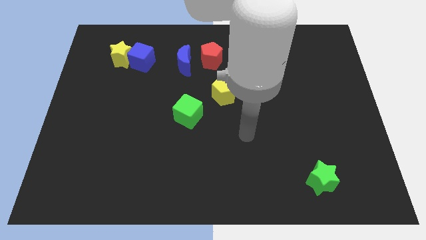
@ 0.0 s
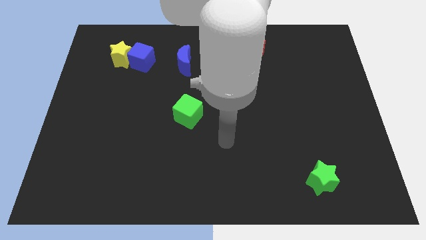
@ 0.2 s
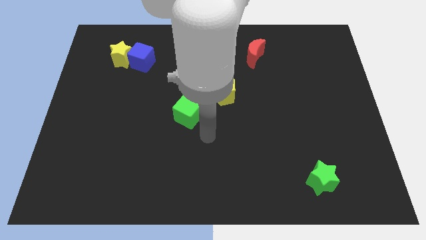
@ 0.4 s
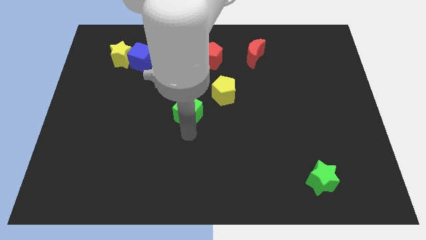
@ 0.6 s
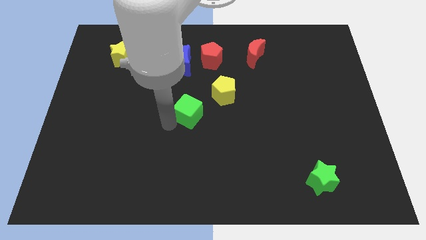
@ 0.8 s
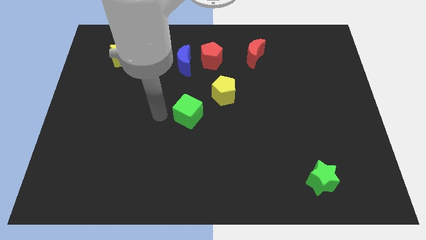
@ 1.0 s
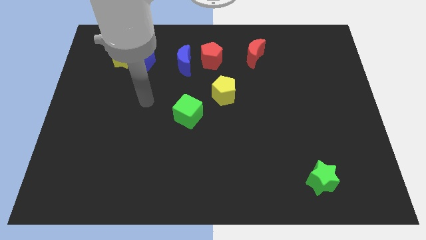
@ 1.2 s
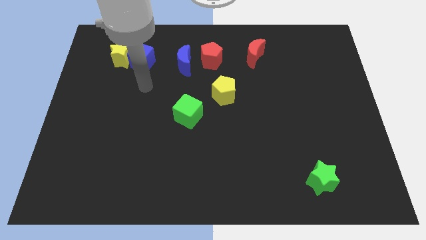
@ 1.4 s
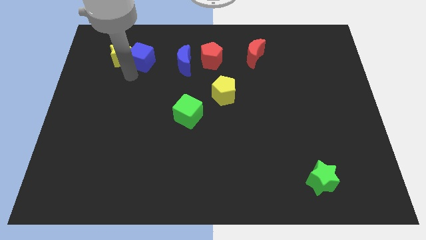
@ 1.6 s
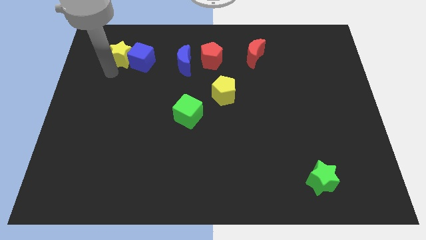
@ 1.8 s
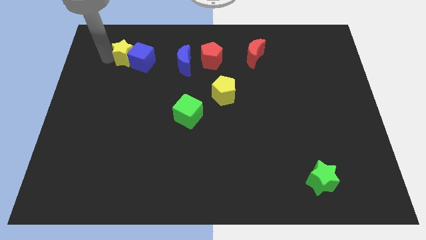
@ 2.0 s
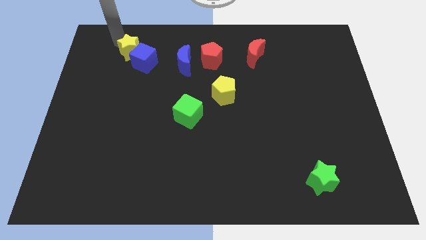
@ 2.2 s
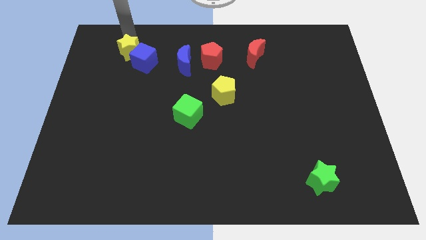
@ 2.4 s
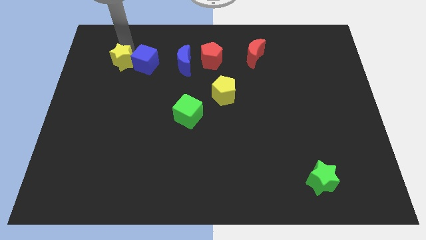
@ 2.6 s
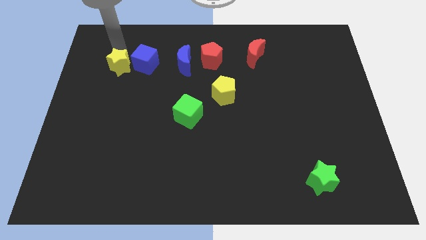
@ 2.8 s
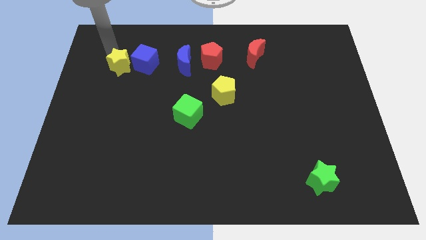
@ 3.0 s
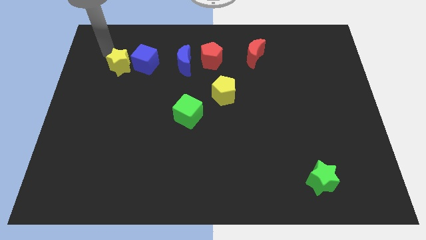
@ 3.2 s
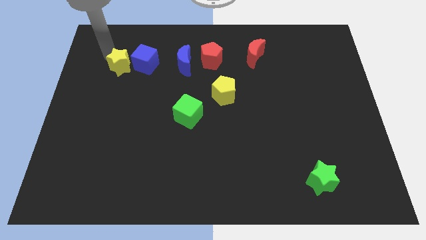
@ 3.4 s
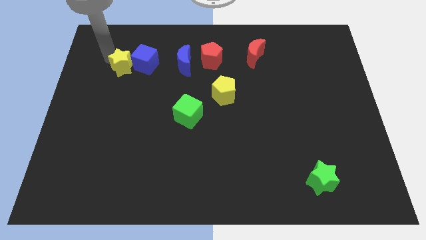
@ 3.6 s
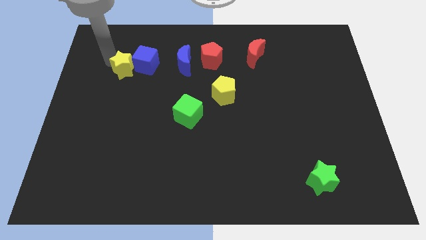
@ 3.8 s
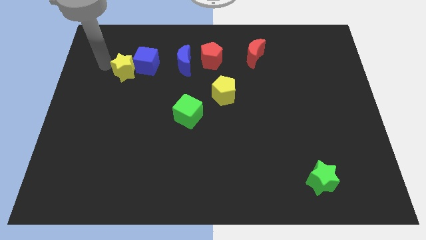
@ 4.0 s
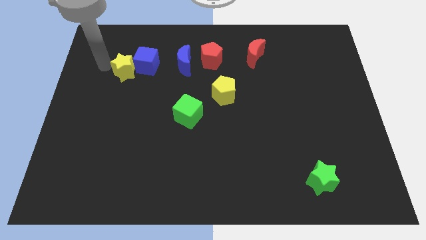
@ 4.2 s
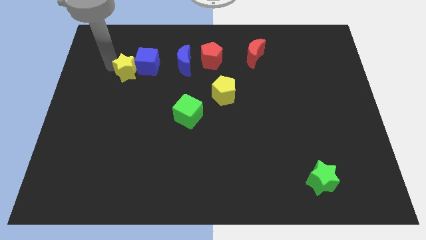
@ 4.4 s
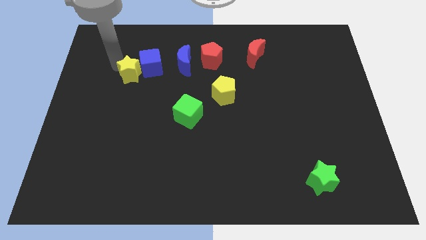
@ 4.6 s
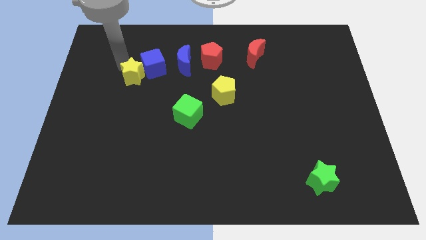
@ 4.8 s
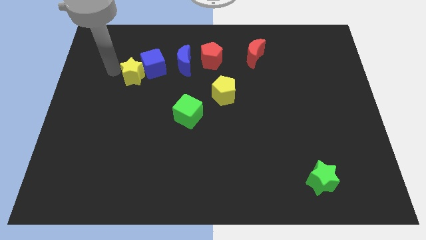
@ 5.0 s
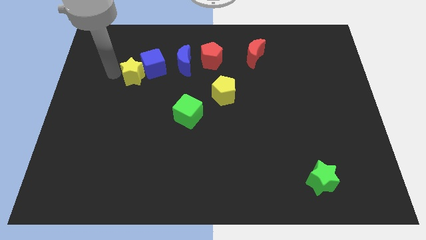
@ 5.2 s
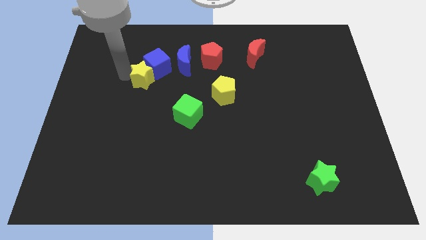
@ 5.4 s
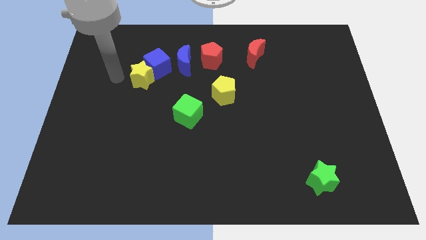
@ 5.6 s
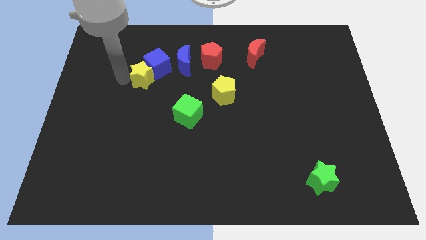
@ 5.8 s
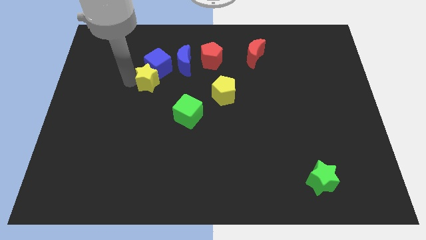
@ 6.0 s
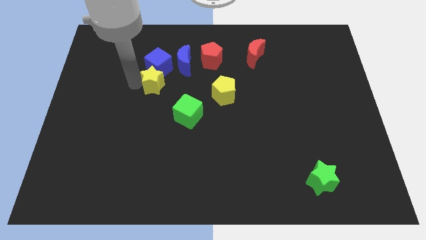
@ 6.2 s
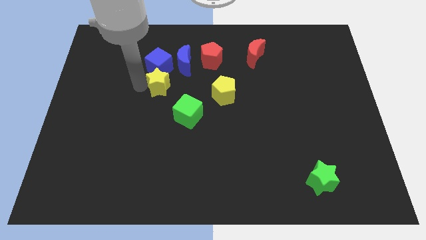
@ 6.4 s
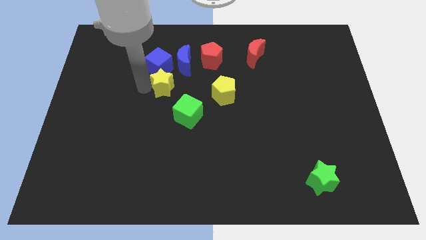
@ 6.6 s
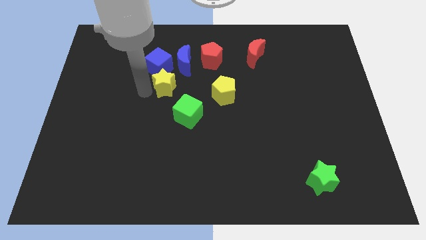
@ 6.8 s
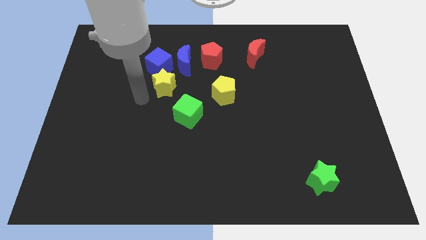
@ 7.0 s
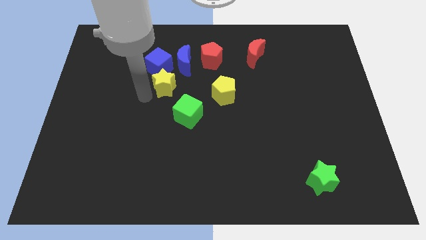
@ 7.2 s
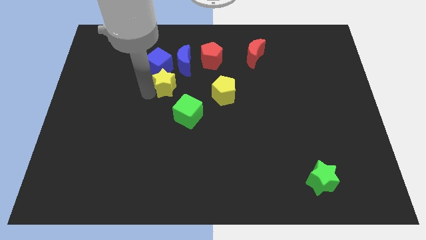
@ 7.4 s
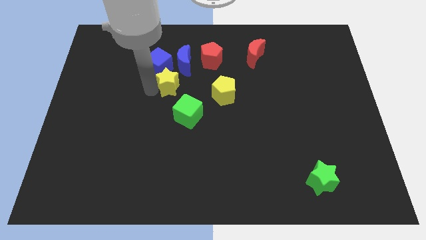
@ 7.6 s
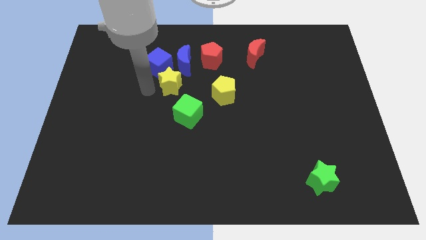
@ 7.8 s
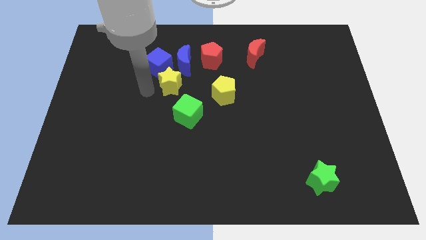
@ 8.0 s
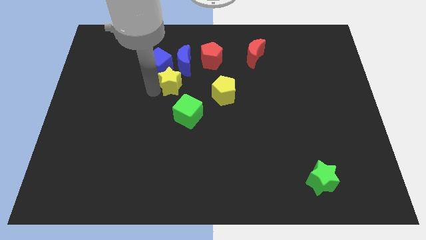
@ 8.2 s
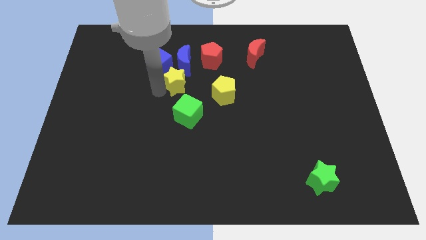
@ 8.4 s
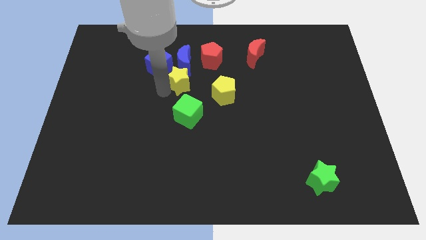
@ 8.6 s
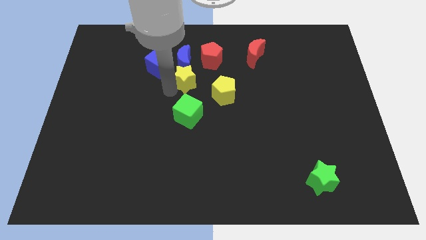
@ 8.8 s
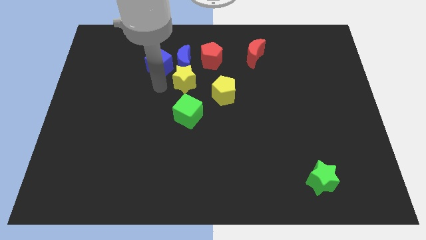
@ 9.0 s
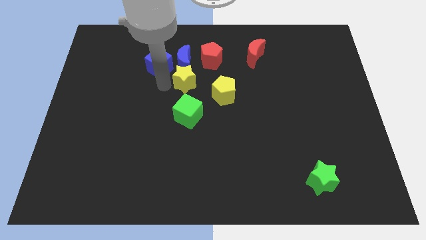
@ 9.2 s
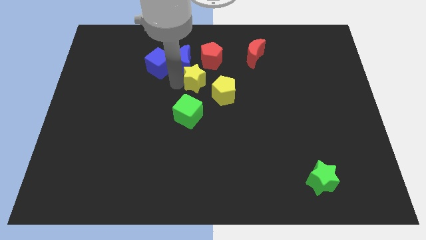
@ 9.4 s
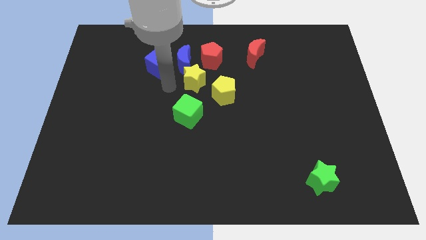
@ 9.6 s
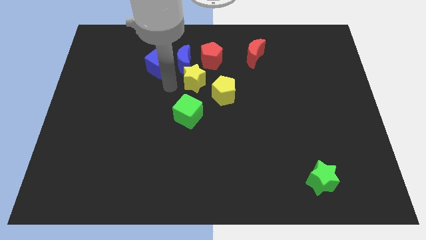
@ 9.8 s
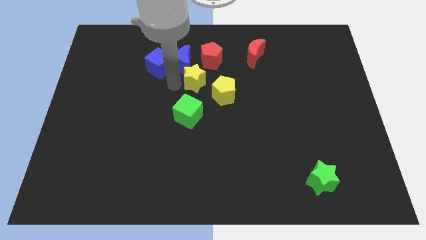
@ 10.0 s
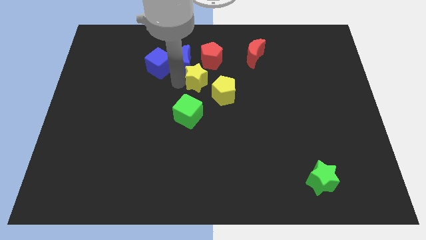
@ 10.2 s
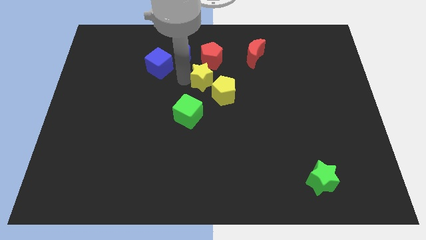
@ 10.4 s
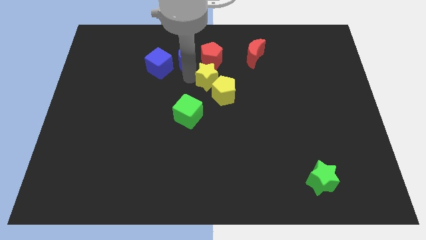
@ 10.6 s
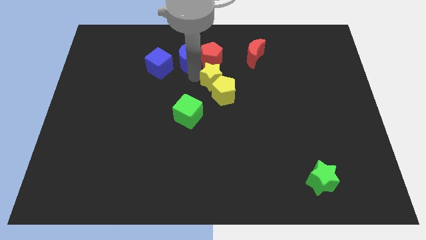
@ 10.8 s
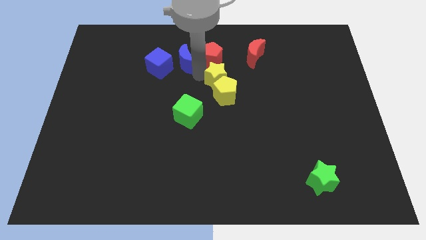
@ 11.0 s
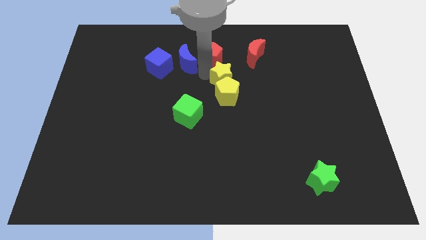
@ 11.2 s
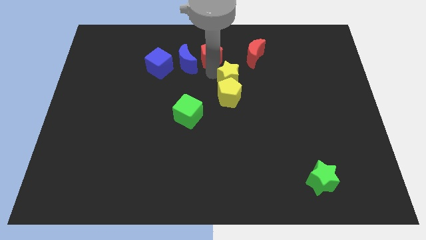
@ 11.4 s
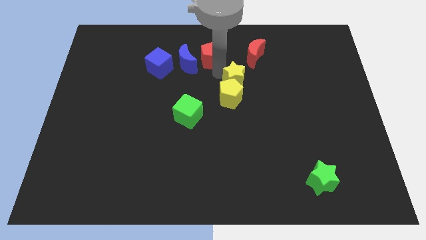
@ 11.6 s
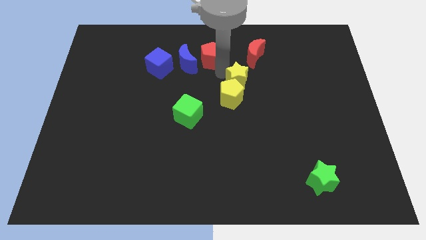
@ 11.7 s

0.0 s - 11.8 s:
slide the yellow star below the red moon

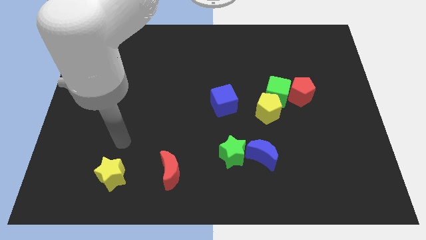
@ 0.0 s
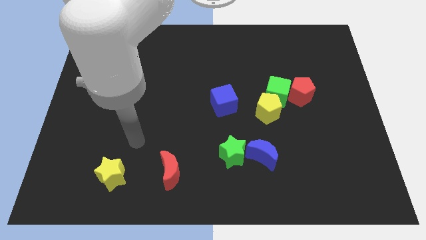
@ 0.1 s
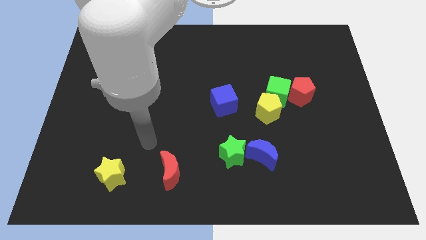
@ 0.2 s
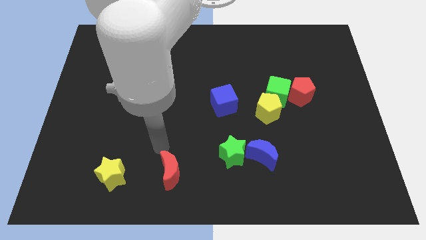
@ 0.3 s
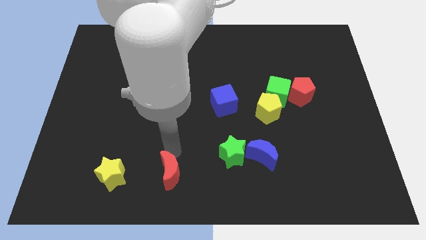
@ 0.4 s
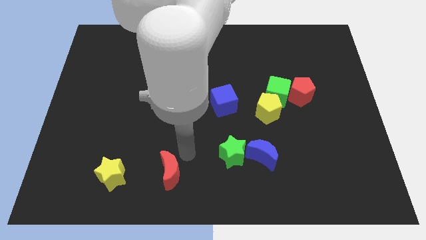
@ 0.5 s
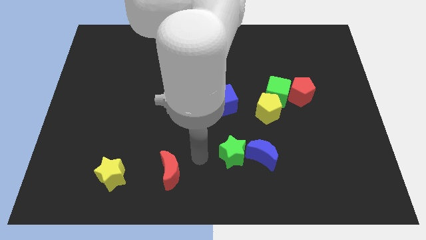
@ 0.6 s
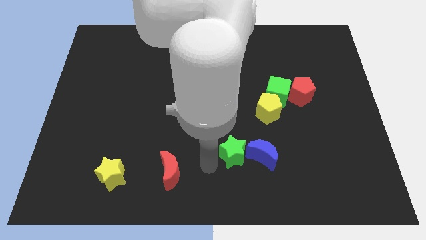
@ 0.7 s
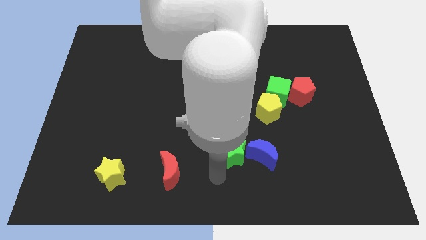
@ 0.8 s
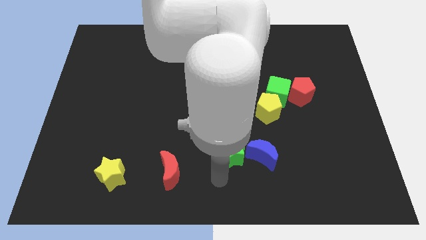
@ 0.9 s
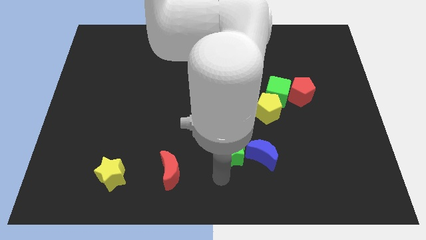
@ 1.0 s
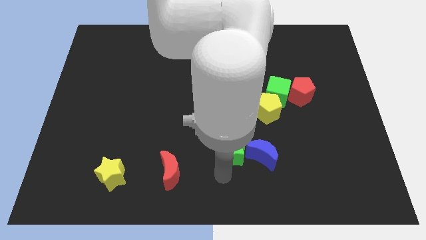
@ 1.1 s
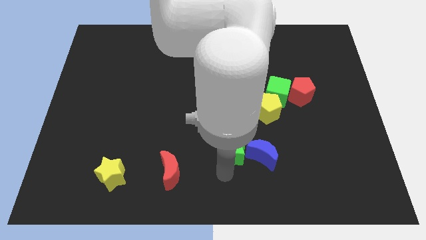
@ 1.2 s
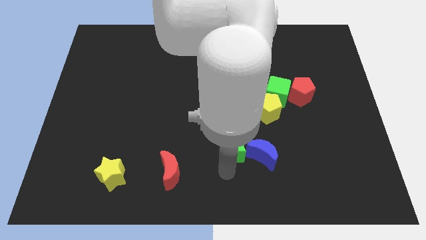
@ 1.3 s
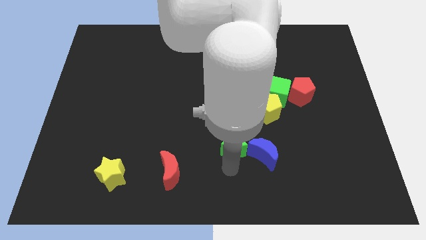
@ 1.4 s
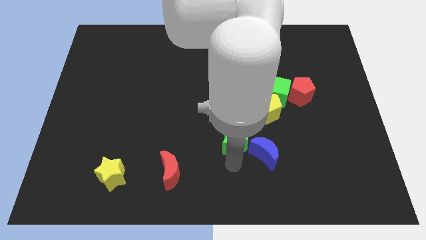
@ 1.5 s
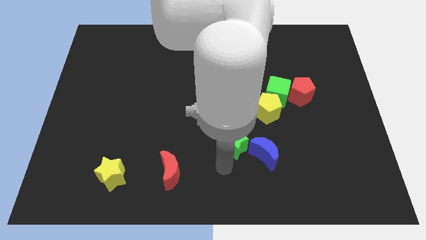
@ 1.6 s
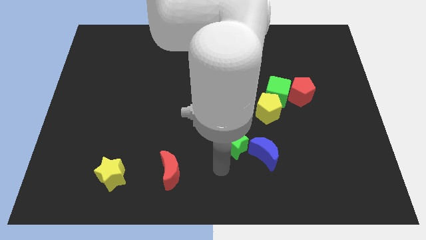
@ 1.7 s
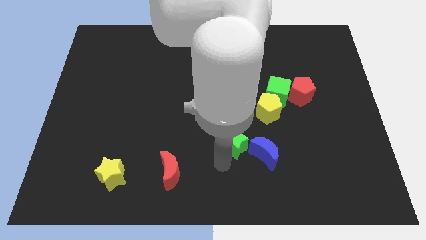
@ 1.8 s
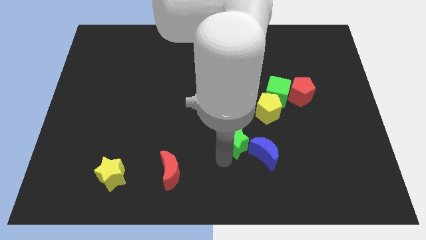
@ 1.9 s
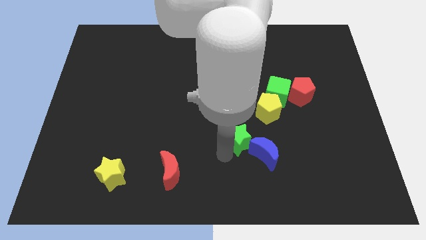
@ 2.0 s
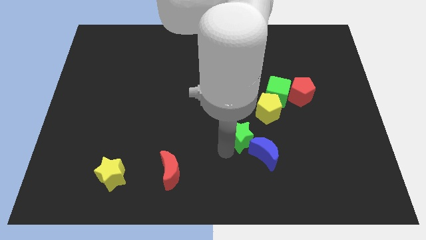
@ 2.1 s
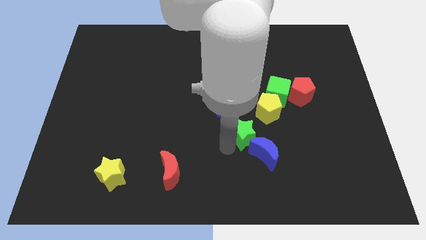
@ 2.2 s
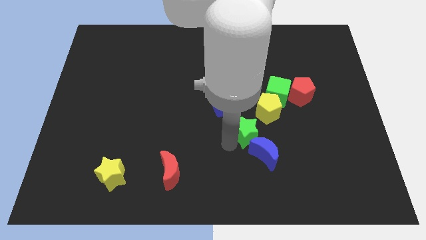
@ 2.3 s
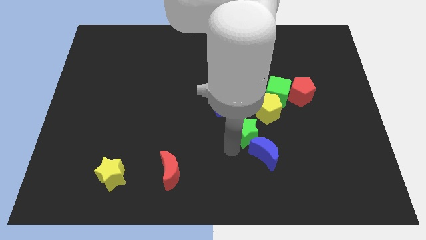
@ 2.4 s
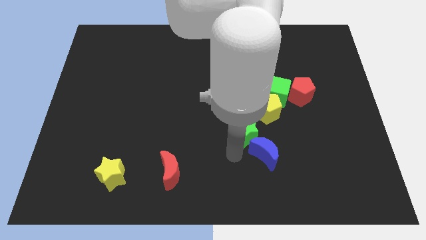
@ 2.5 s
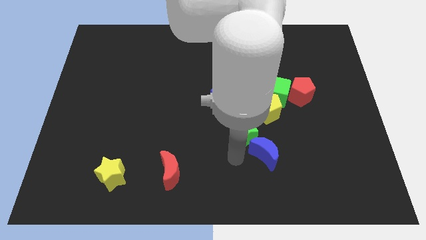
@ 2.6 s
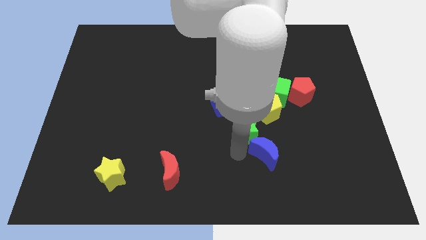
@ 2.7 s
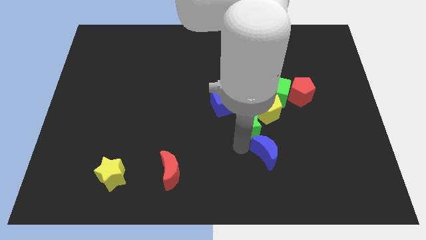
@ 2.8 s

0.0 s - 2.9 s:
slide the green star diagonally down and to the left of the green cube
